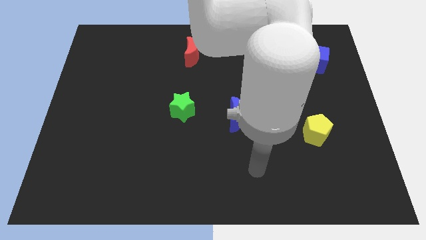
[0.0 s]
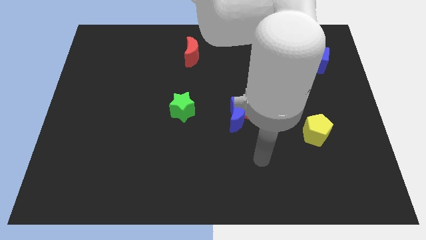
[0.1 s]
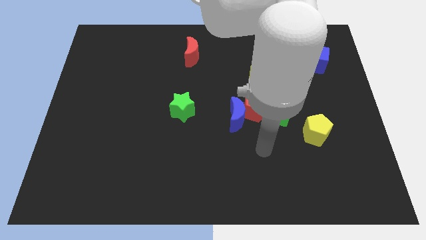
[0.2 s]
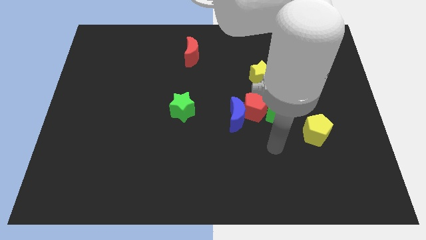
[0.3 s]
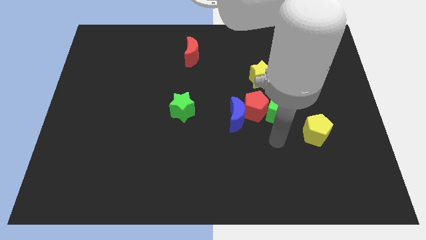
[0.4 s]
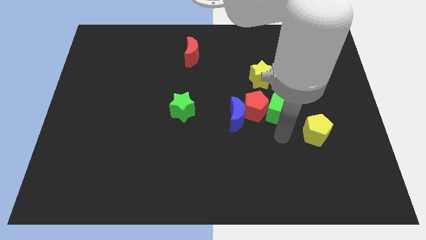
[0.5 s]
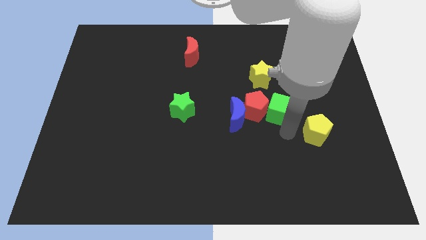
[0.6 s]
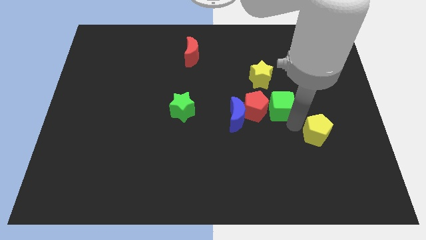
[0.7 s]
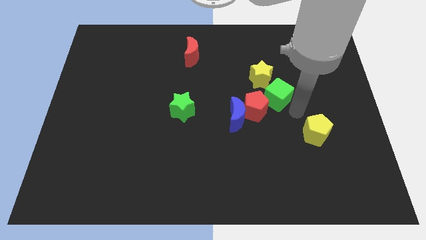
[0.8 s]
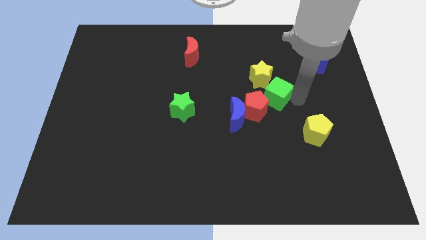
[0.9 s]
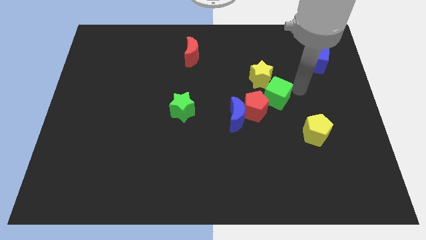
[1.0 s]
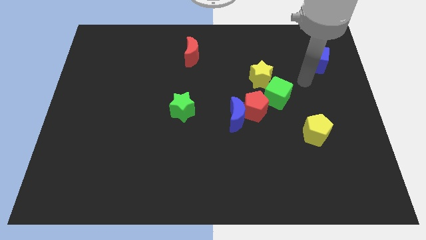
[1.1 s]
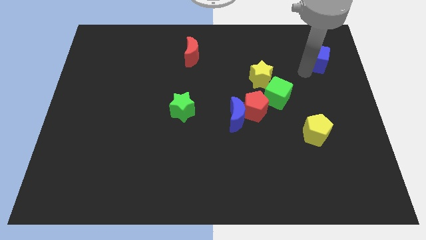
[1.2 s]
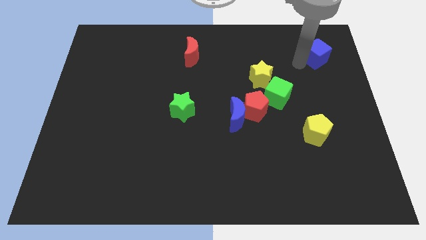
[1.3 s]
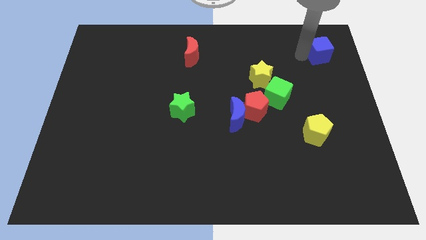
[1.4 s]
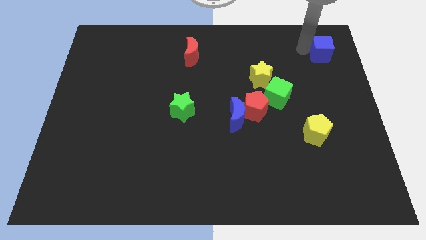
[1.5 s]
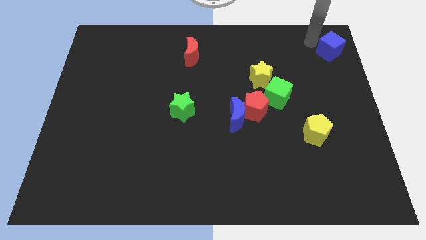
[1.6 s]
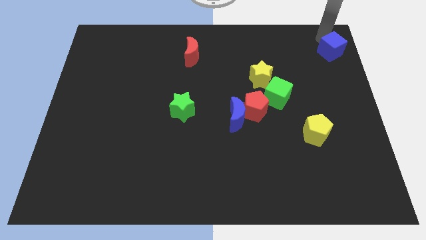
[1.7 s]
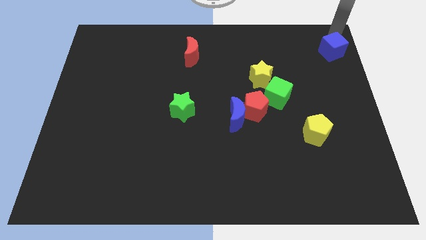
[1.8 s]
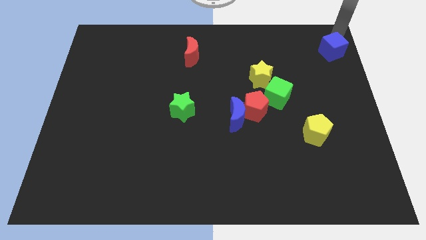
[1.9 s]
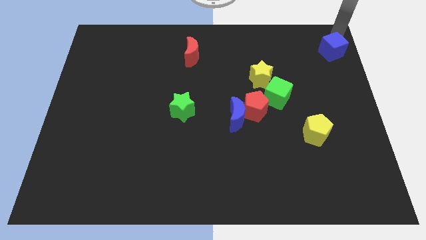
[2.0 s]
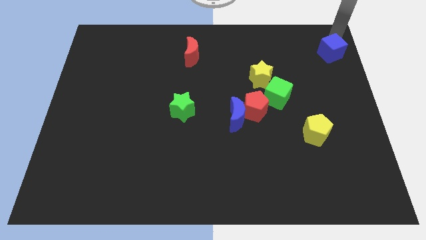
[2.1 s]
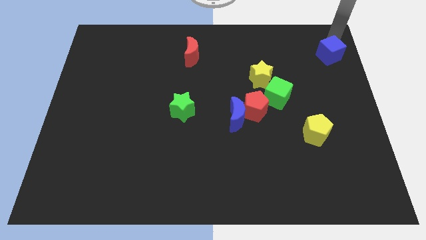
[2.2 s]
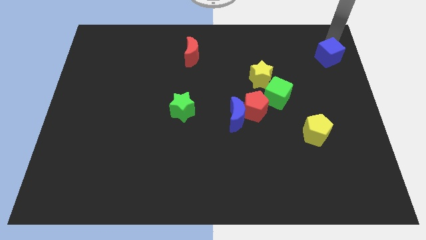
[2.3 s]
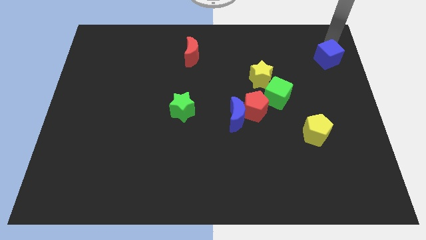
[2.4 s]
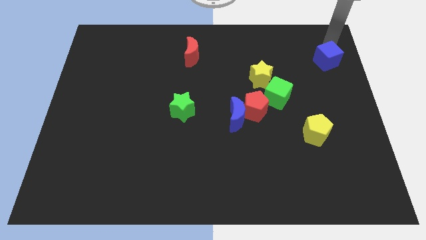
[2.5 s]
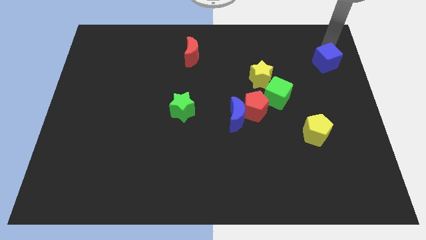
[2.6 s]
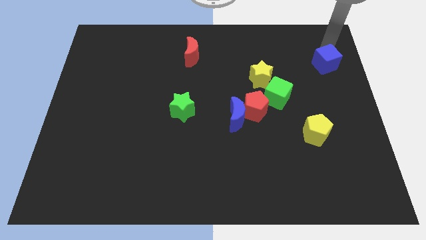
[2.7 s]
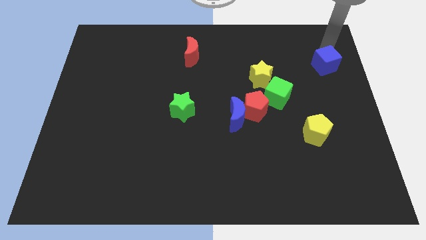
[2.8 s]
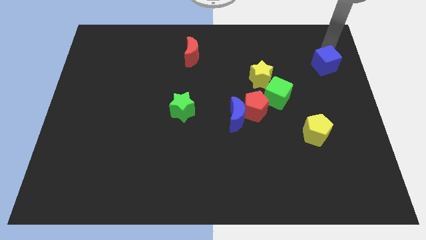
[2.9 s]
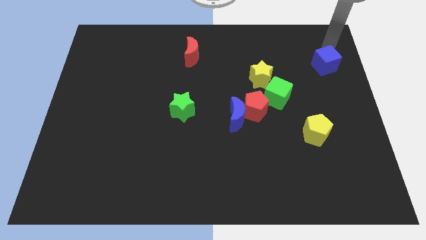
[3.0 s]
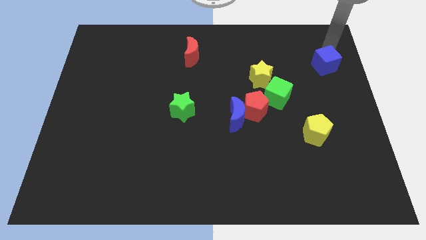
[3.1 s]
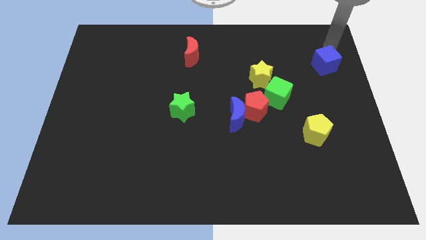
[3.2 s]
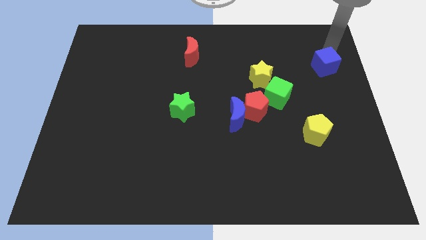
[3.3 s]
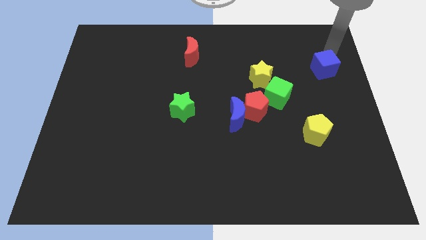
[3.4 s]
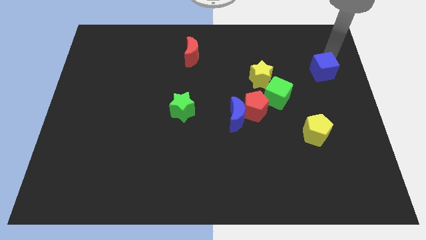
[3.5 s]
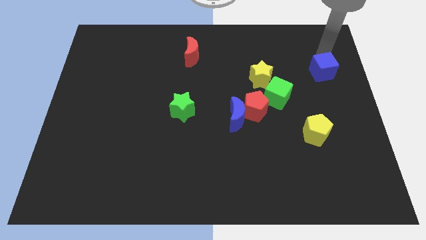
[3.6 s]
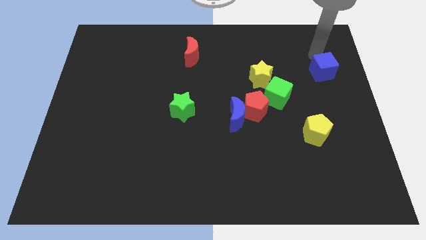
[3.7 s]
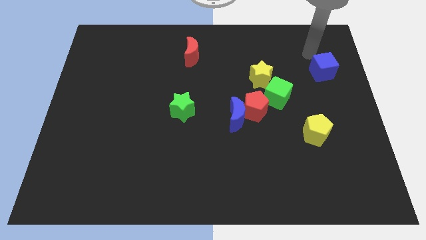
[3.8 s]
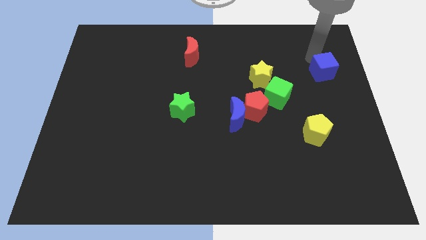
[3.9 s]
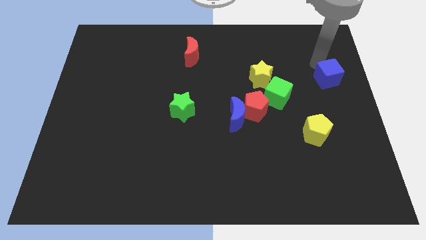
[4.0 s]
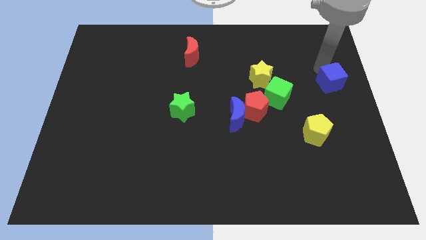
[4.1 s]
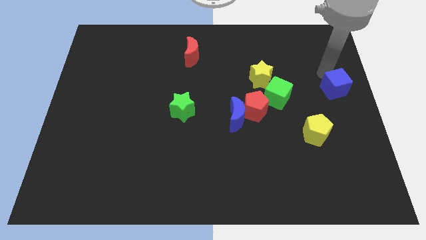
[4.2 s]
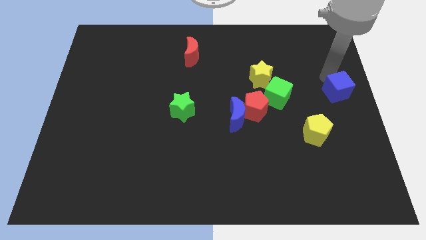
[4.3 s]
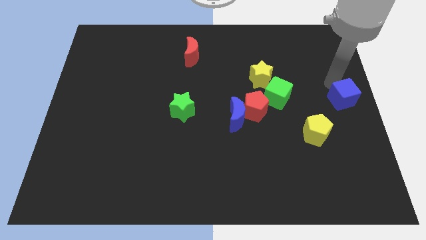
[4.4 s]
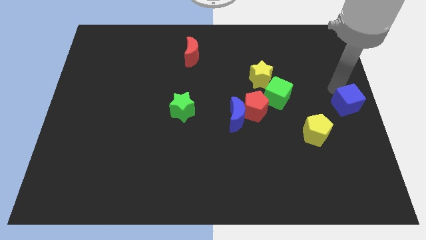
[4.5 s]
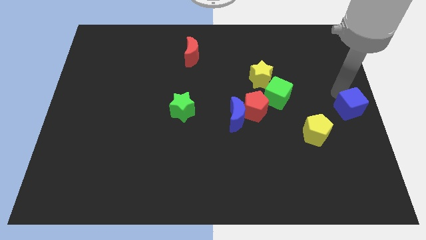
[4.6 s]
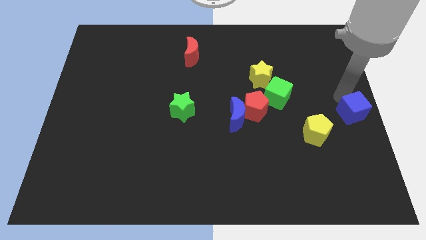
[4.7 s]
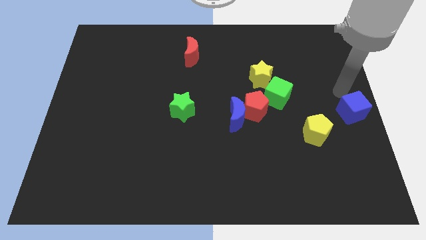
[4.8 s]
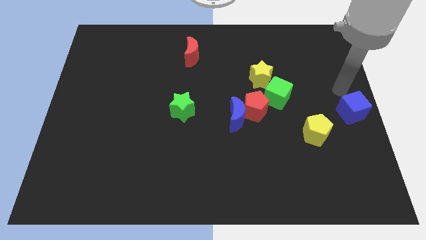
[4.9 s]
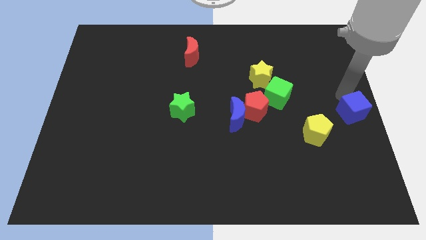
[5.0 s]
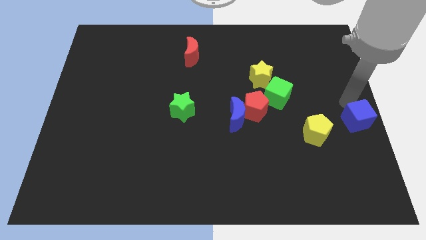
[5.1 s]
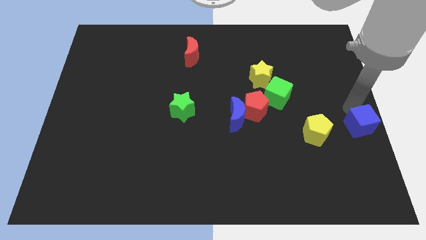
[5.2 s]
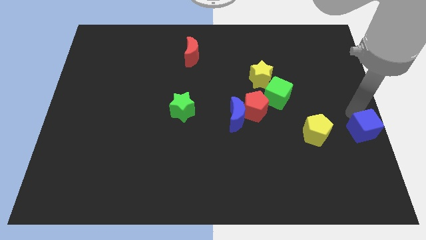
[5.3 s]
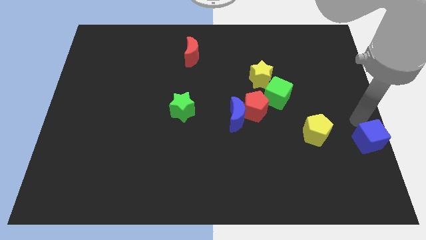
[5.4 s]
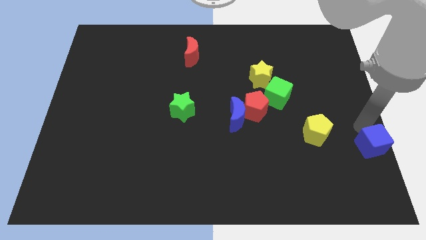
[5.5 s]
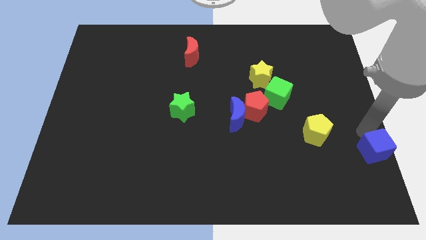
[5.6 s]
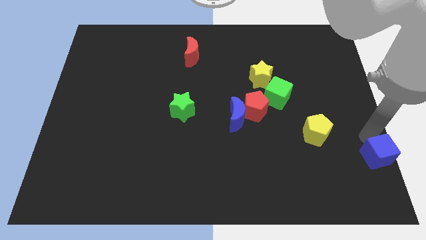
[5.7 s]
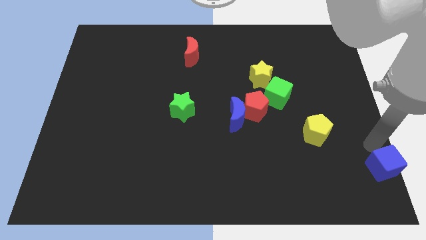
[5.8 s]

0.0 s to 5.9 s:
move the blue cube to the lower right corner

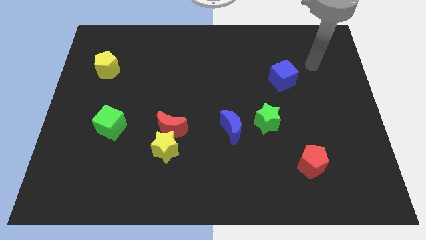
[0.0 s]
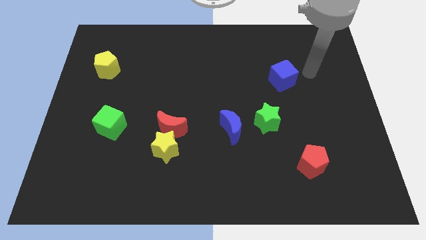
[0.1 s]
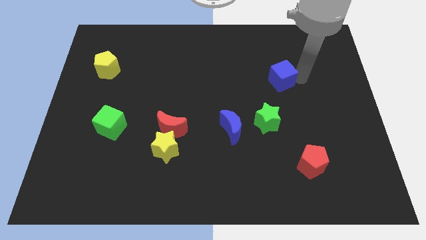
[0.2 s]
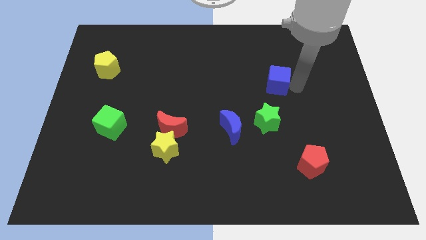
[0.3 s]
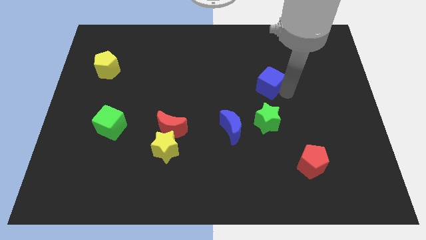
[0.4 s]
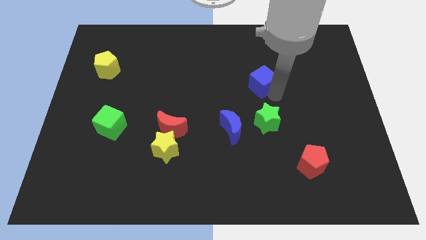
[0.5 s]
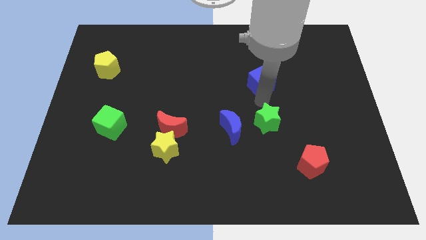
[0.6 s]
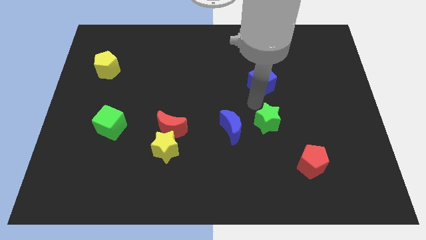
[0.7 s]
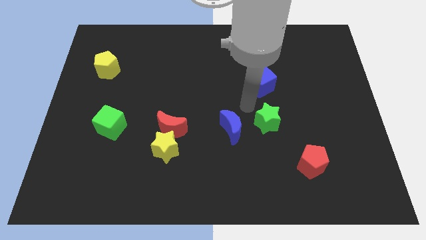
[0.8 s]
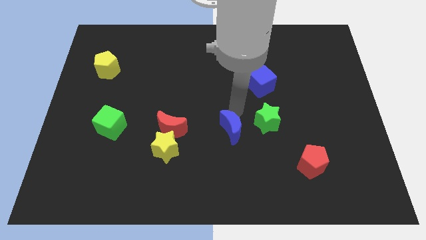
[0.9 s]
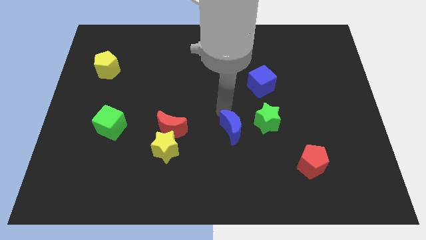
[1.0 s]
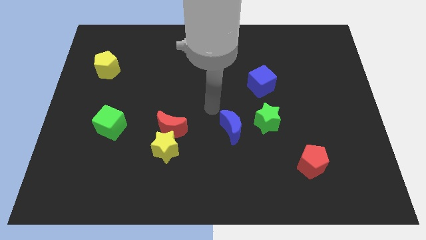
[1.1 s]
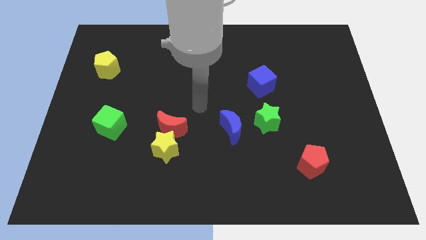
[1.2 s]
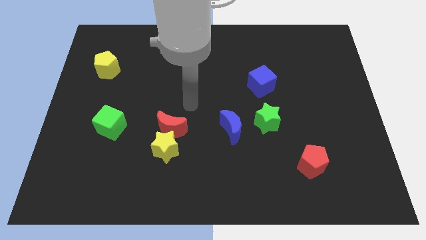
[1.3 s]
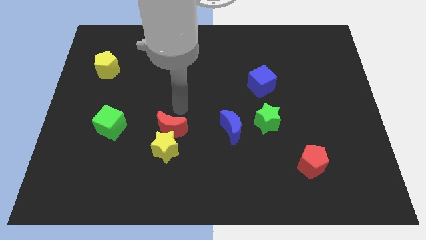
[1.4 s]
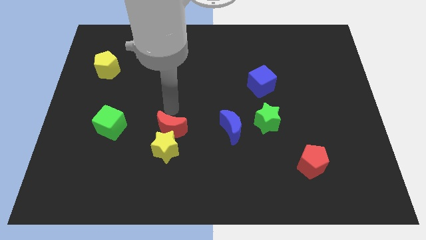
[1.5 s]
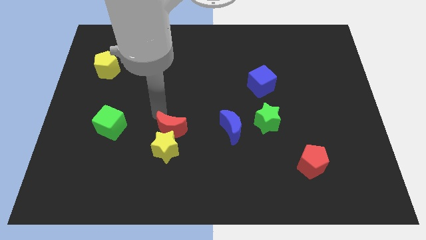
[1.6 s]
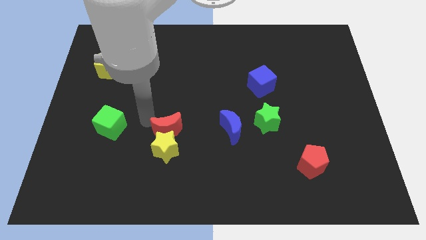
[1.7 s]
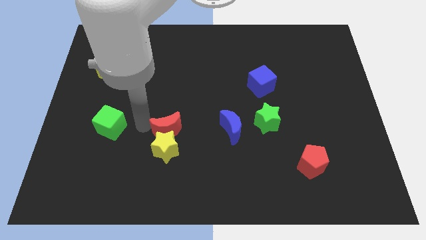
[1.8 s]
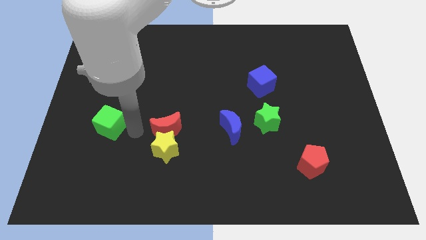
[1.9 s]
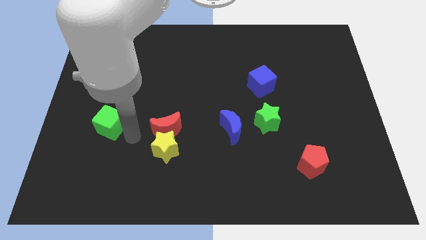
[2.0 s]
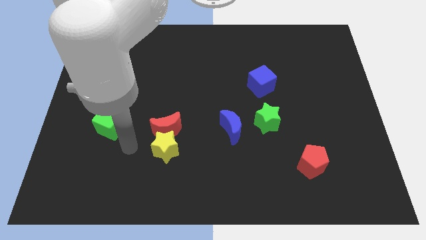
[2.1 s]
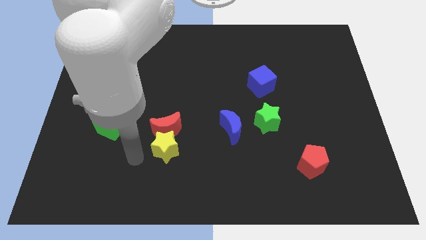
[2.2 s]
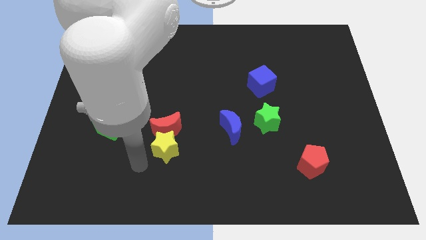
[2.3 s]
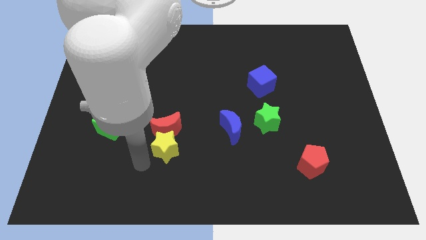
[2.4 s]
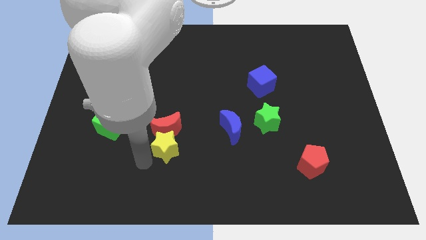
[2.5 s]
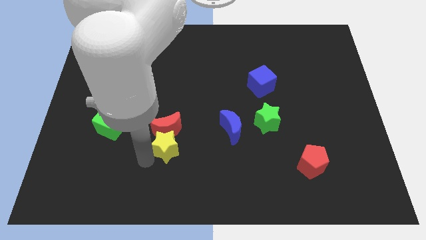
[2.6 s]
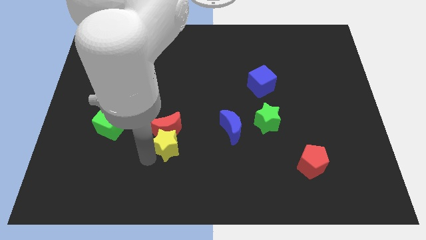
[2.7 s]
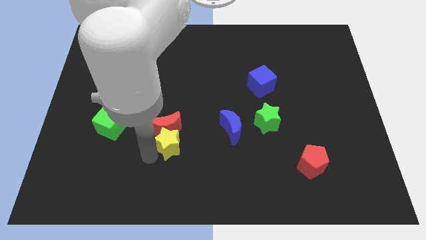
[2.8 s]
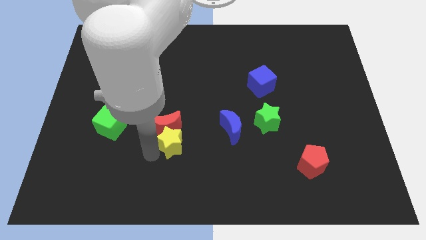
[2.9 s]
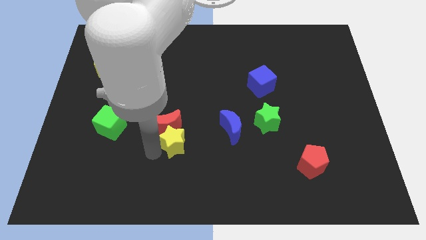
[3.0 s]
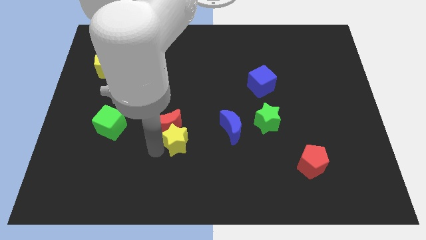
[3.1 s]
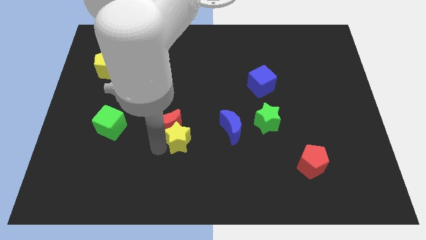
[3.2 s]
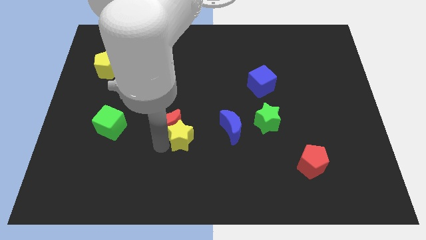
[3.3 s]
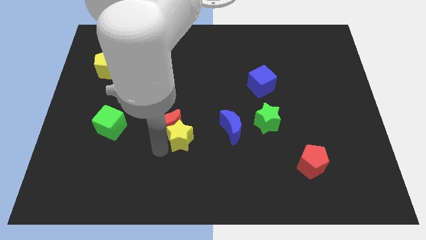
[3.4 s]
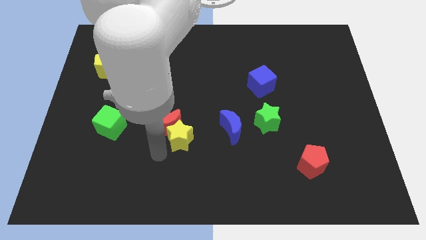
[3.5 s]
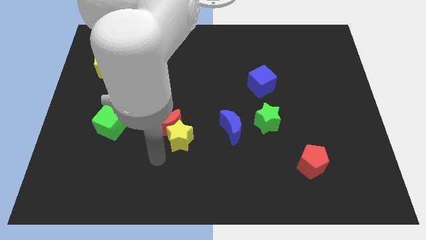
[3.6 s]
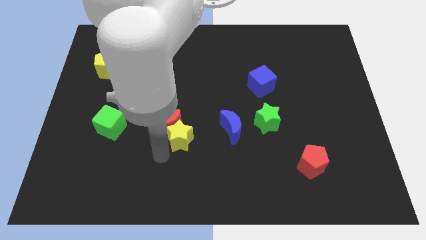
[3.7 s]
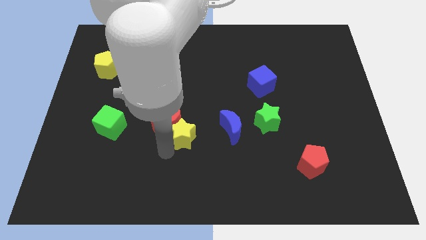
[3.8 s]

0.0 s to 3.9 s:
put the yellow star to the center
